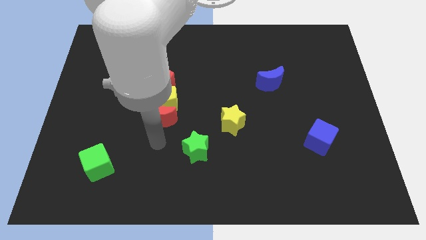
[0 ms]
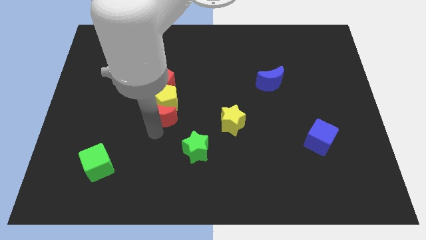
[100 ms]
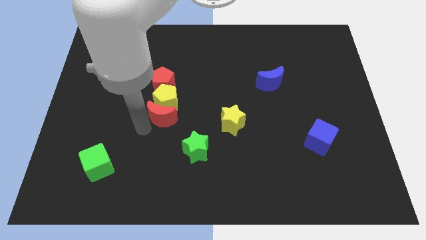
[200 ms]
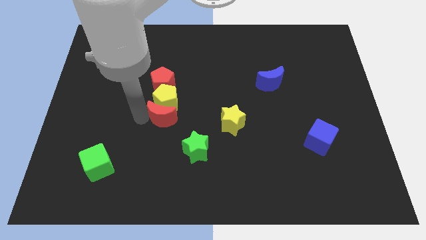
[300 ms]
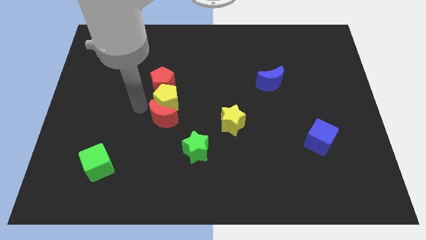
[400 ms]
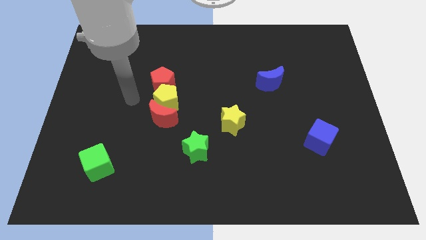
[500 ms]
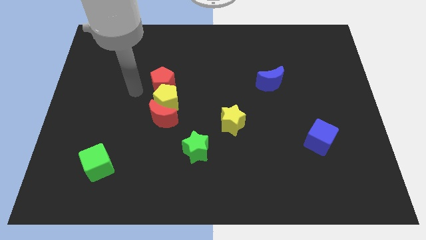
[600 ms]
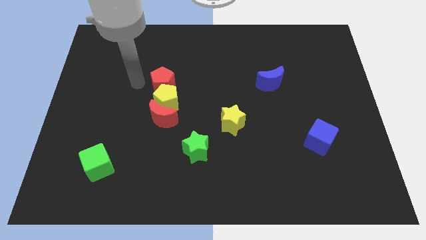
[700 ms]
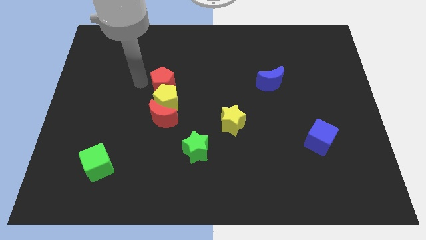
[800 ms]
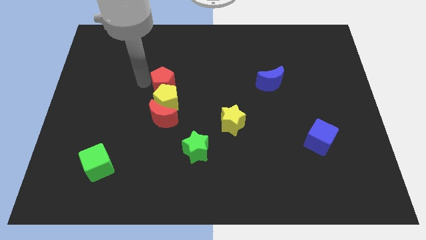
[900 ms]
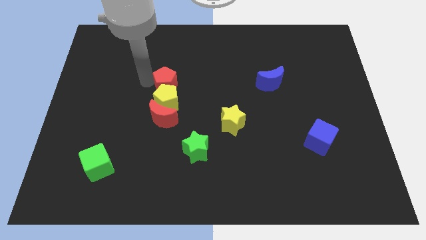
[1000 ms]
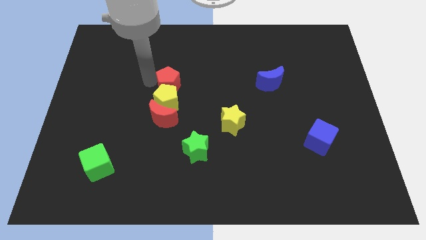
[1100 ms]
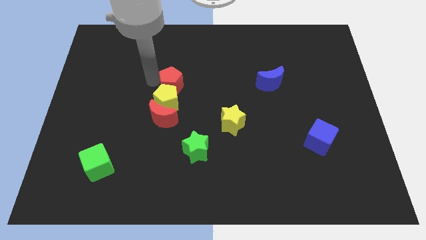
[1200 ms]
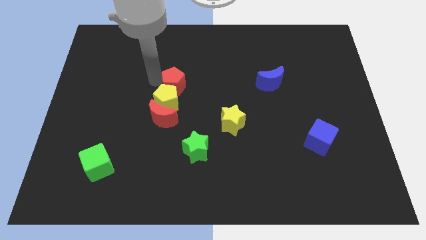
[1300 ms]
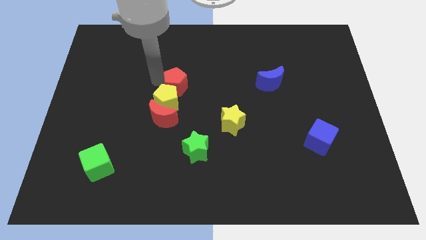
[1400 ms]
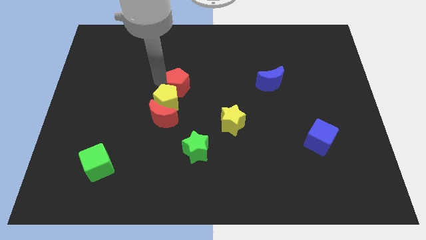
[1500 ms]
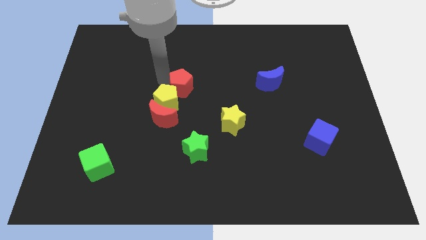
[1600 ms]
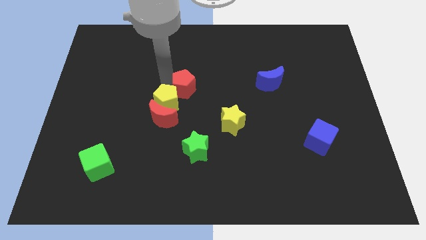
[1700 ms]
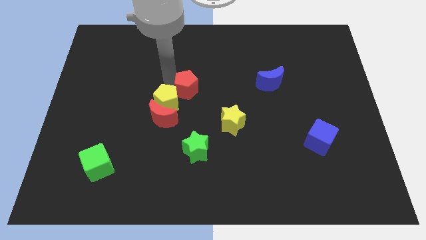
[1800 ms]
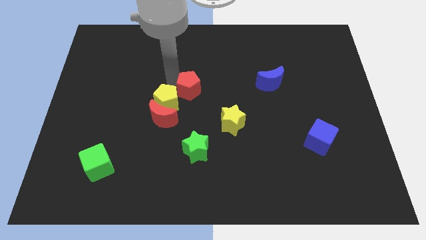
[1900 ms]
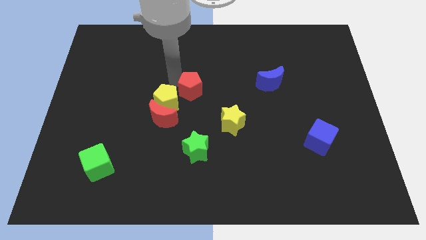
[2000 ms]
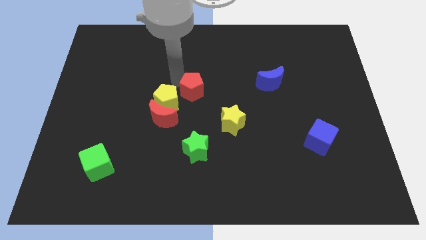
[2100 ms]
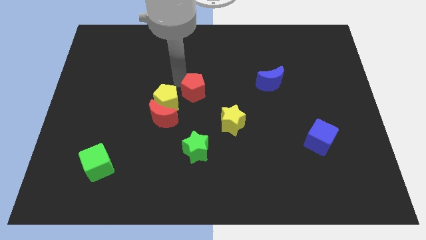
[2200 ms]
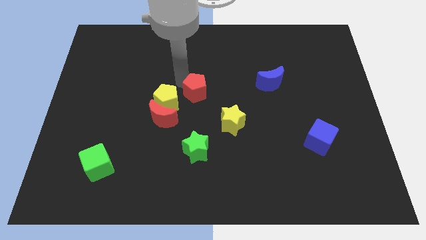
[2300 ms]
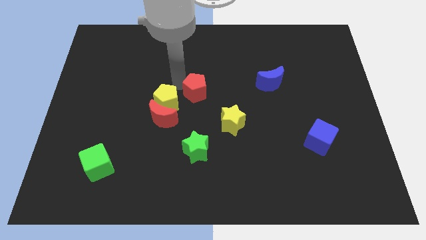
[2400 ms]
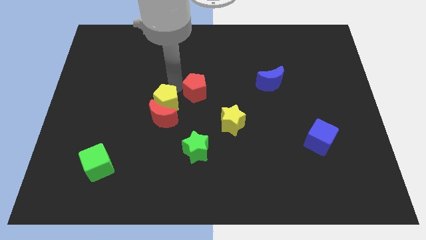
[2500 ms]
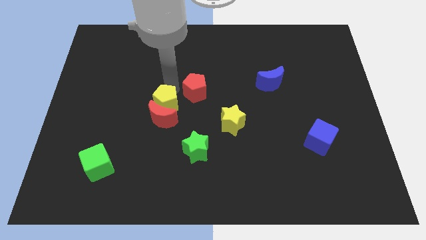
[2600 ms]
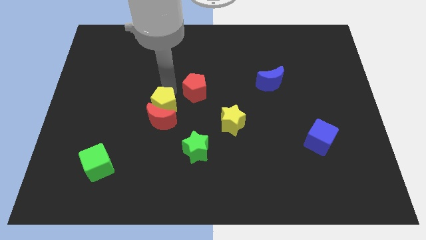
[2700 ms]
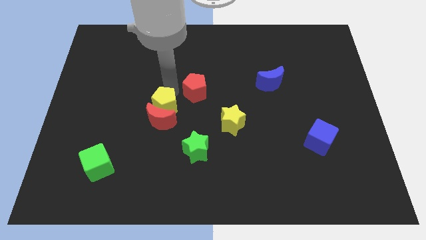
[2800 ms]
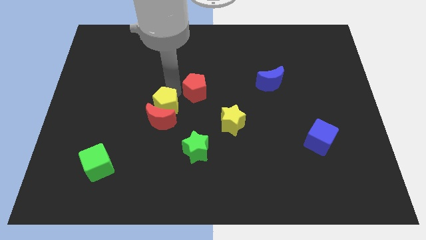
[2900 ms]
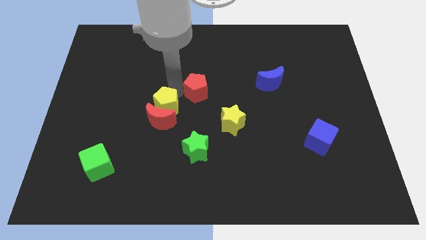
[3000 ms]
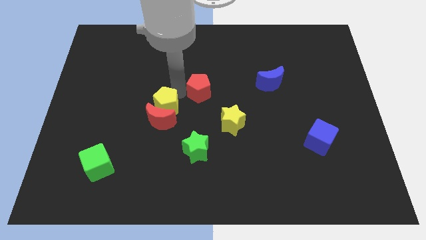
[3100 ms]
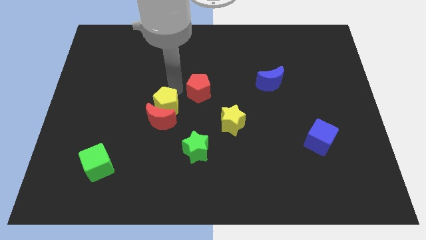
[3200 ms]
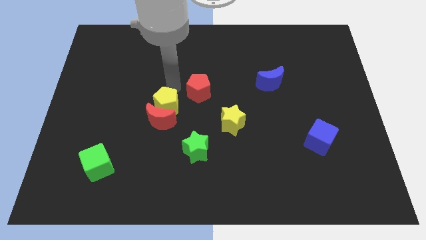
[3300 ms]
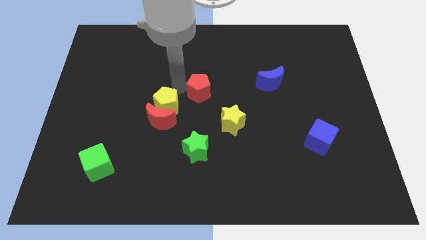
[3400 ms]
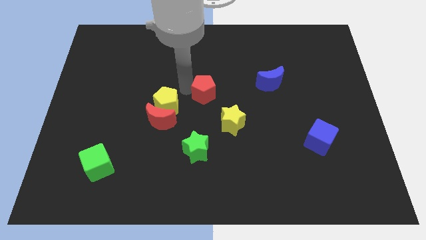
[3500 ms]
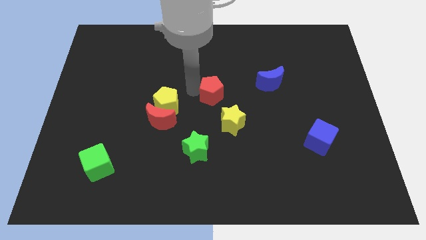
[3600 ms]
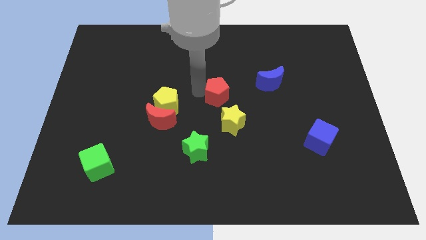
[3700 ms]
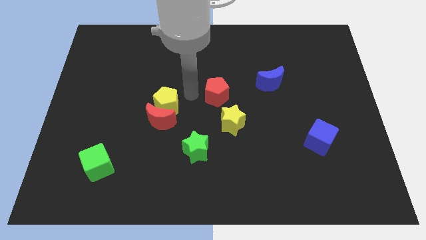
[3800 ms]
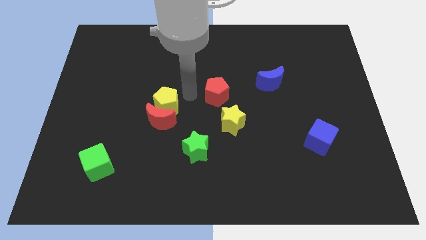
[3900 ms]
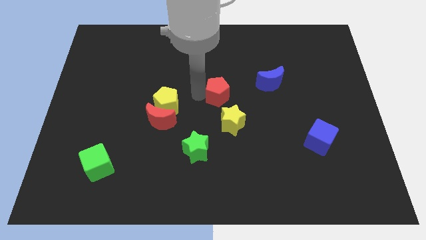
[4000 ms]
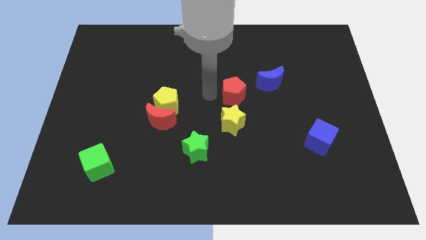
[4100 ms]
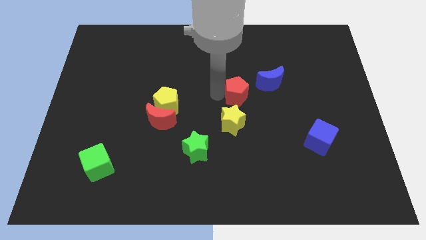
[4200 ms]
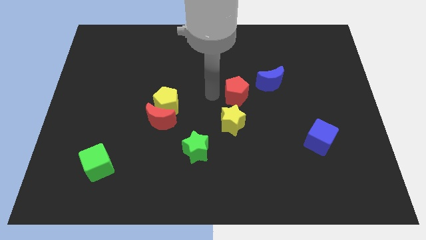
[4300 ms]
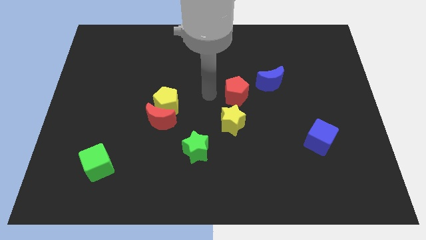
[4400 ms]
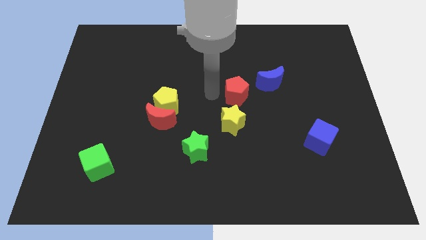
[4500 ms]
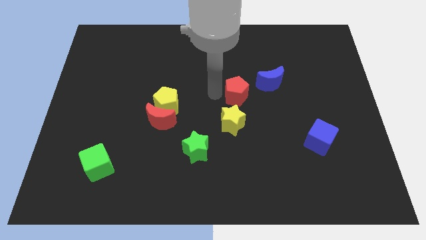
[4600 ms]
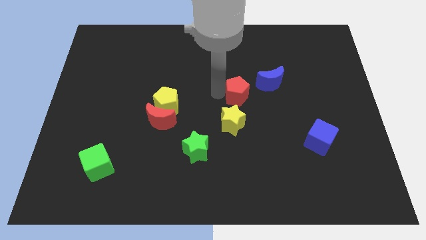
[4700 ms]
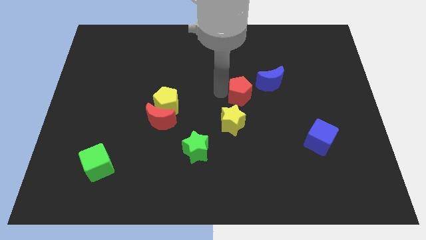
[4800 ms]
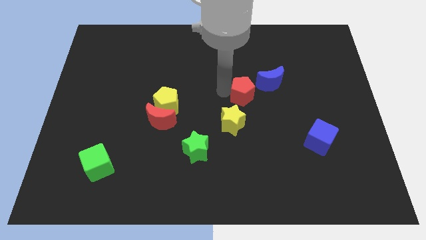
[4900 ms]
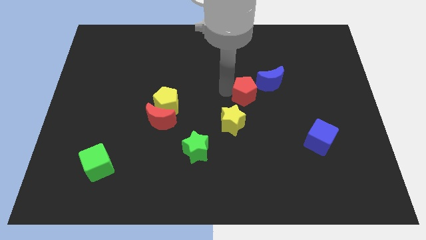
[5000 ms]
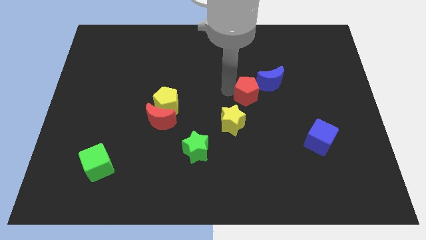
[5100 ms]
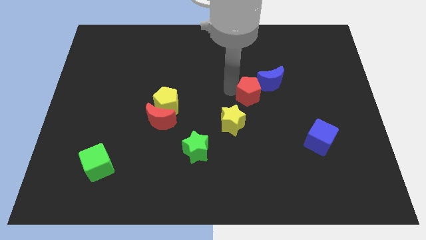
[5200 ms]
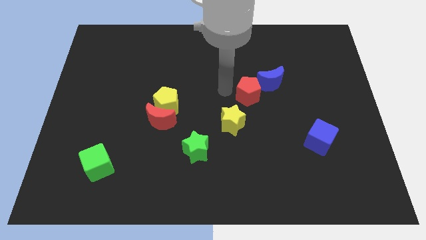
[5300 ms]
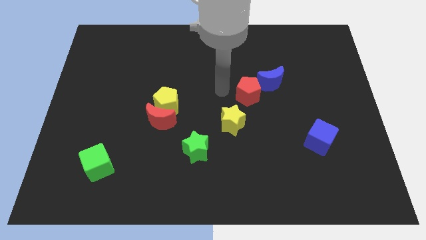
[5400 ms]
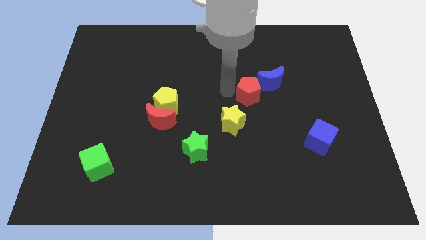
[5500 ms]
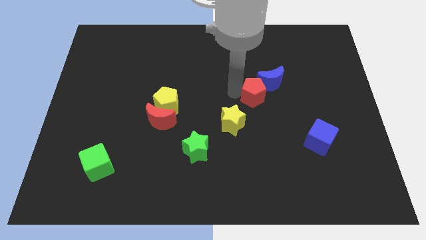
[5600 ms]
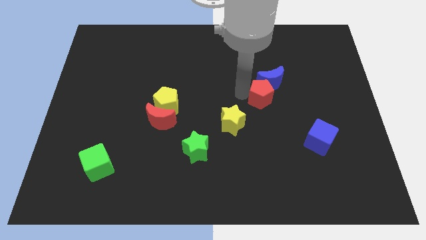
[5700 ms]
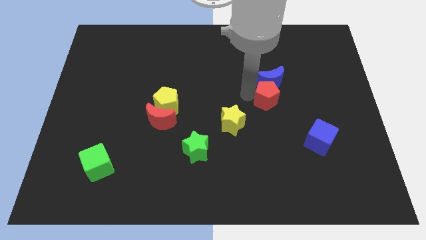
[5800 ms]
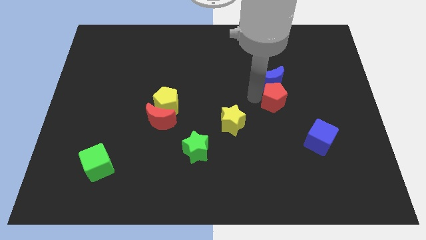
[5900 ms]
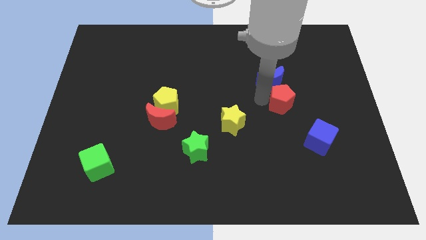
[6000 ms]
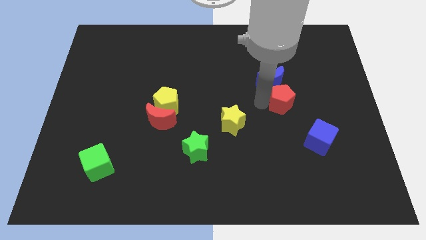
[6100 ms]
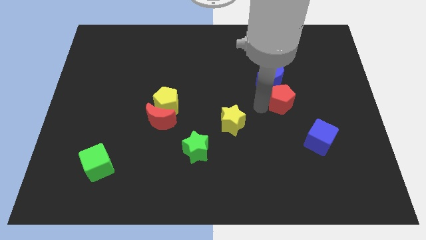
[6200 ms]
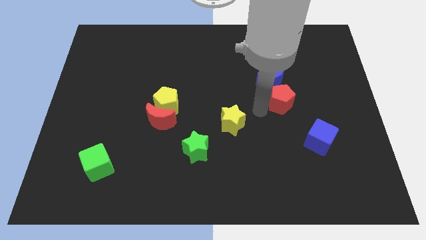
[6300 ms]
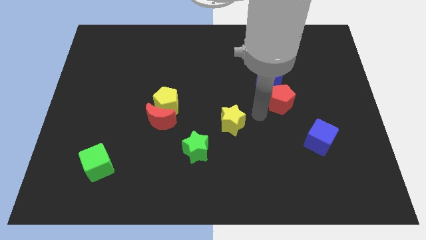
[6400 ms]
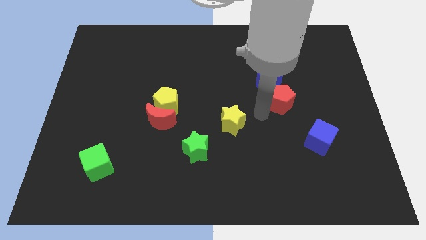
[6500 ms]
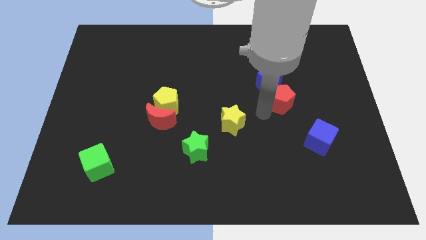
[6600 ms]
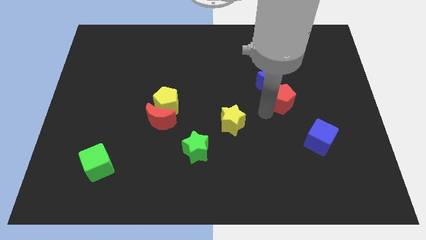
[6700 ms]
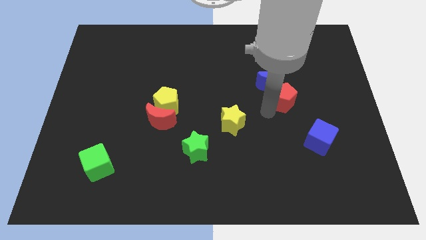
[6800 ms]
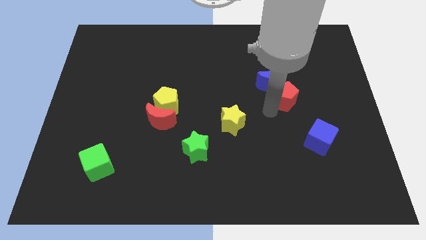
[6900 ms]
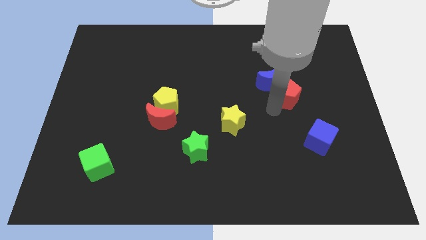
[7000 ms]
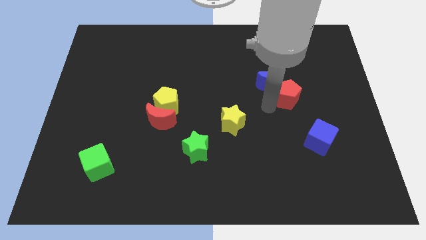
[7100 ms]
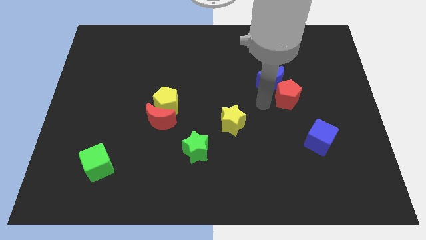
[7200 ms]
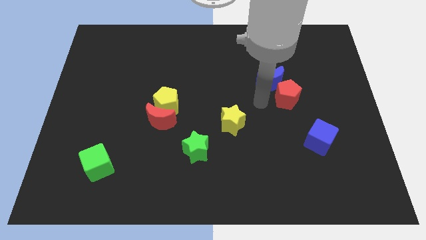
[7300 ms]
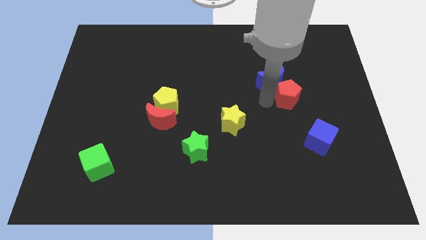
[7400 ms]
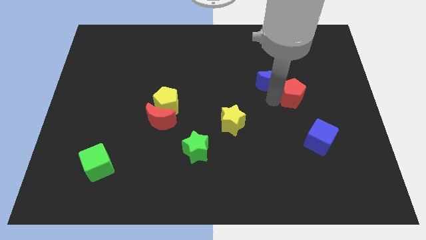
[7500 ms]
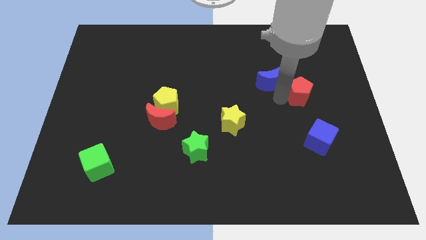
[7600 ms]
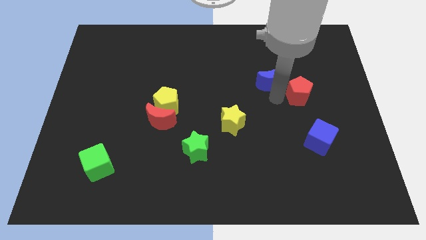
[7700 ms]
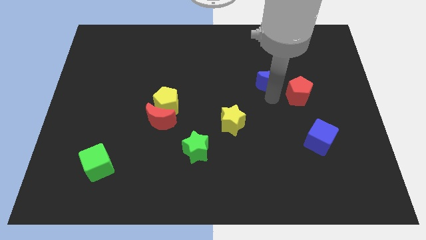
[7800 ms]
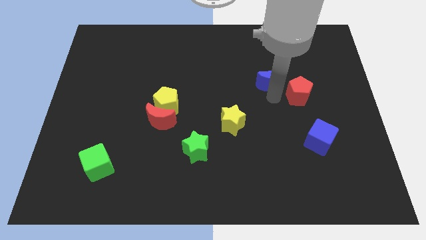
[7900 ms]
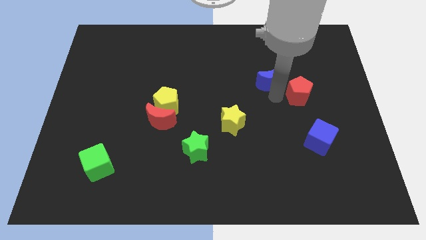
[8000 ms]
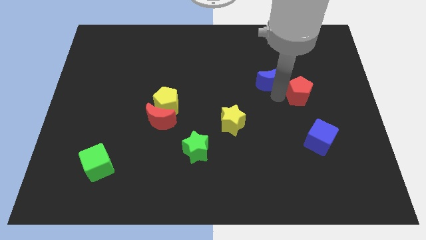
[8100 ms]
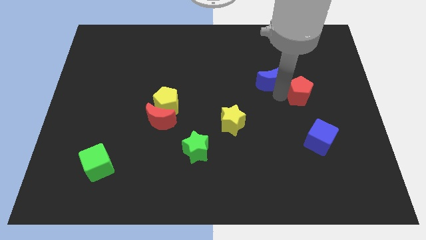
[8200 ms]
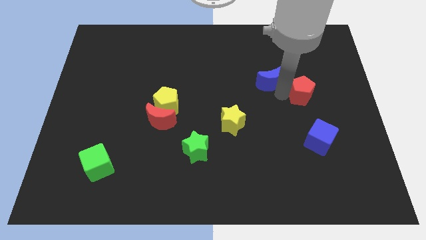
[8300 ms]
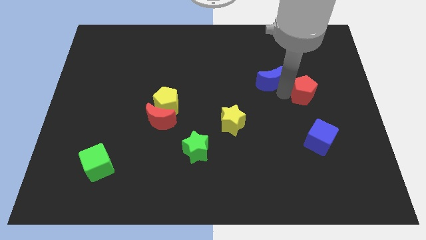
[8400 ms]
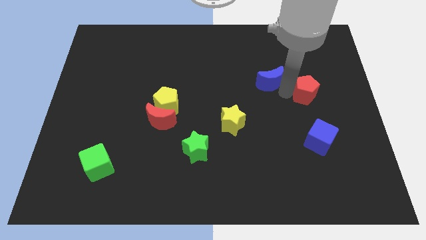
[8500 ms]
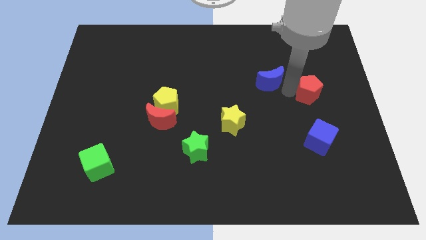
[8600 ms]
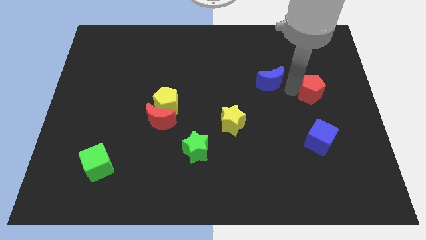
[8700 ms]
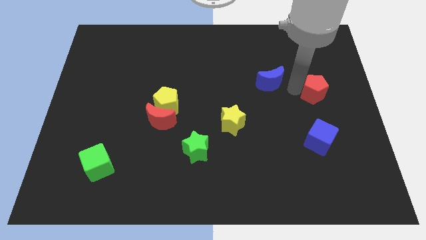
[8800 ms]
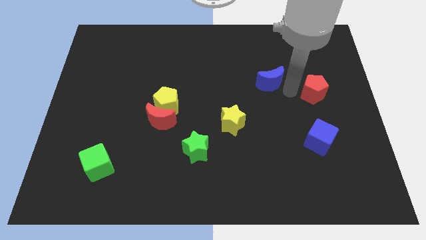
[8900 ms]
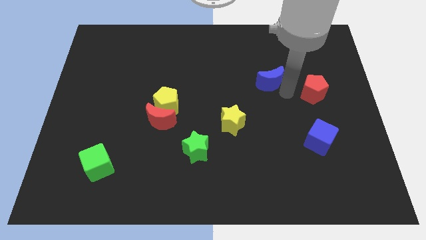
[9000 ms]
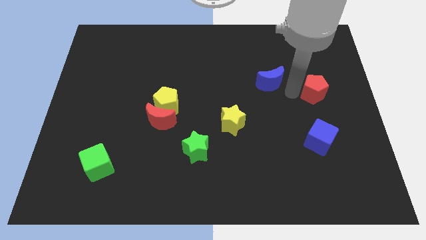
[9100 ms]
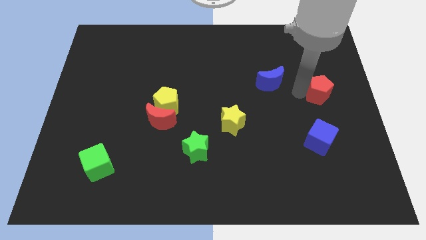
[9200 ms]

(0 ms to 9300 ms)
push the red pentagon to the center right
